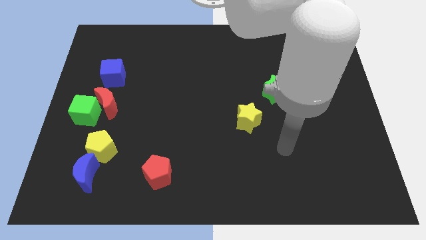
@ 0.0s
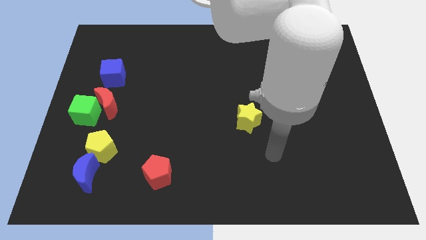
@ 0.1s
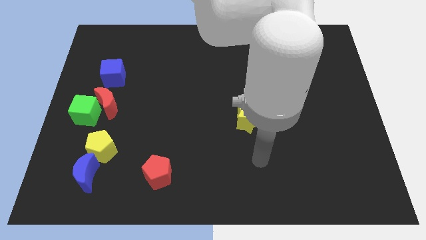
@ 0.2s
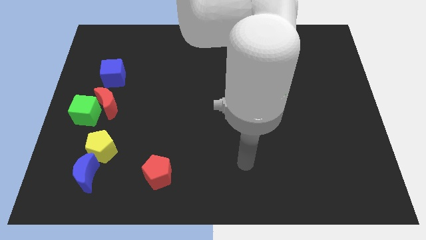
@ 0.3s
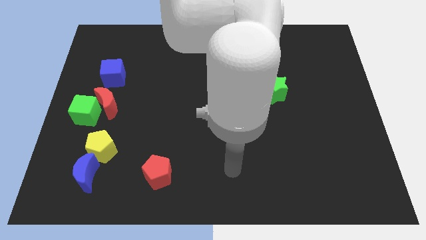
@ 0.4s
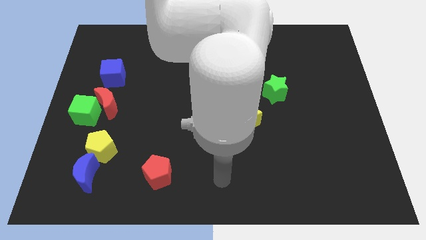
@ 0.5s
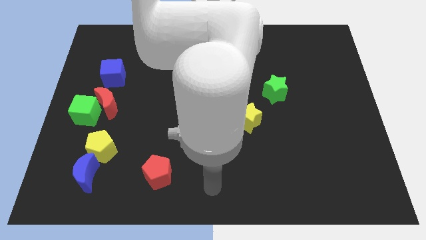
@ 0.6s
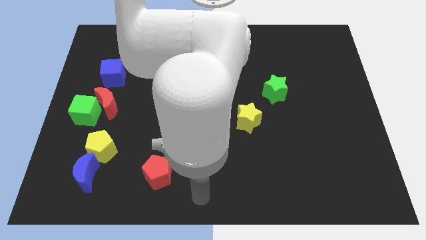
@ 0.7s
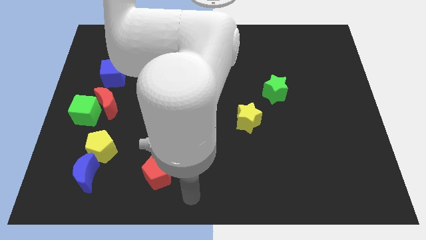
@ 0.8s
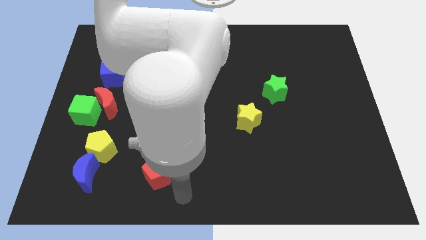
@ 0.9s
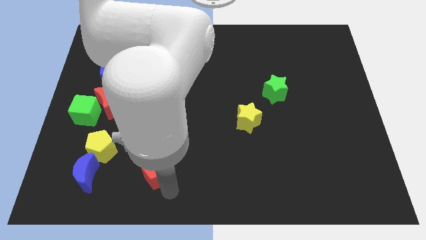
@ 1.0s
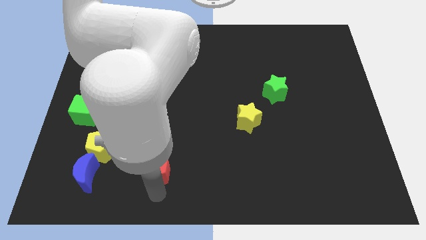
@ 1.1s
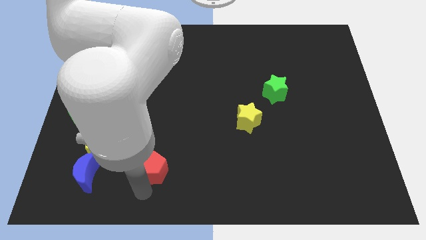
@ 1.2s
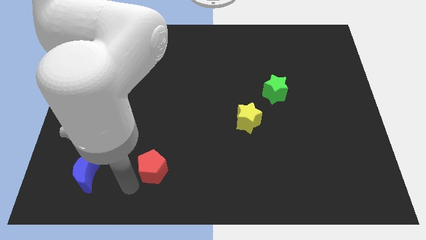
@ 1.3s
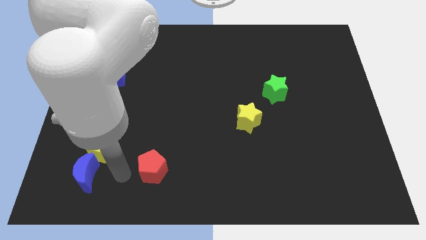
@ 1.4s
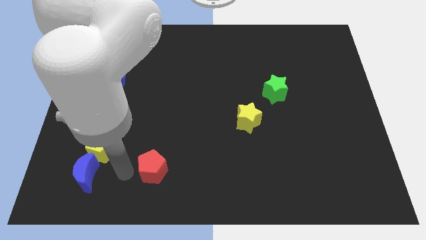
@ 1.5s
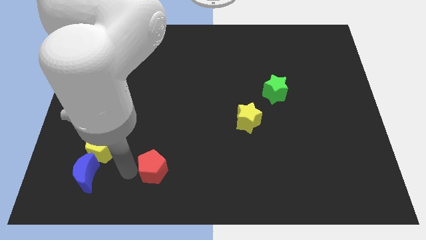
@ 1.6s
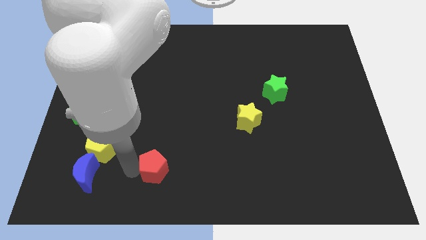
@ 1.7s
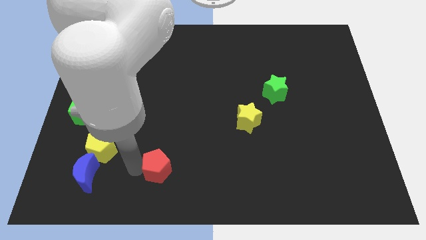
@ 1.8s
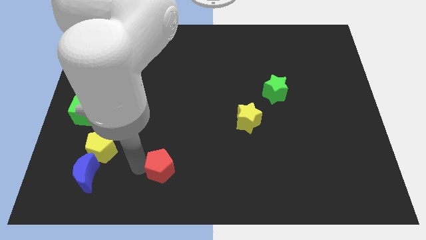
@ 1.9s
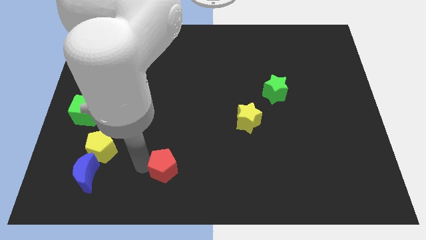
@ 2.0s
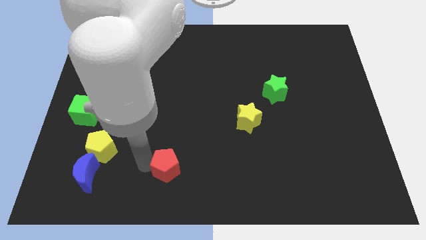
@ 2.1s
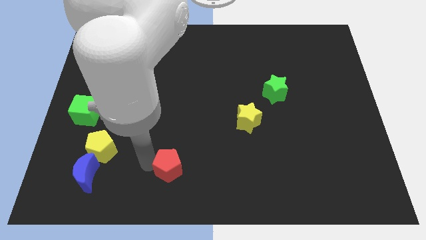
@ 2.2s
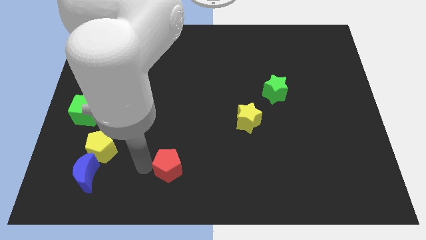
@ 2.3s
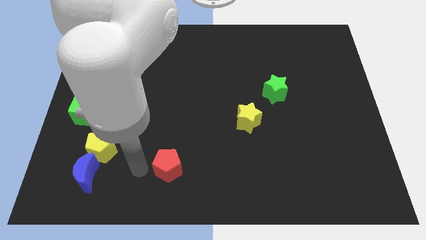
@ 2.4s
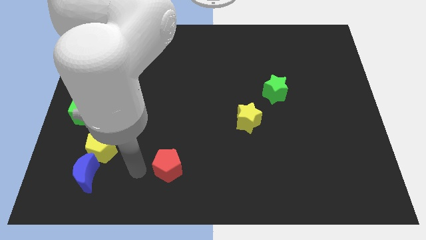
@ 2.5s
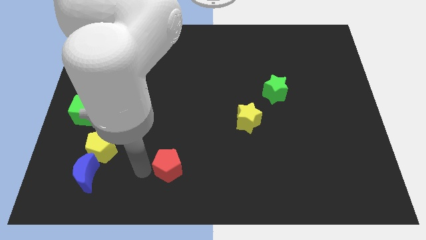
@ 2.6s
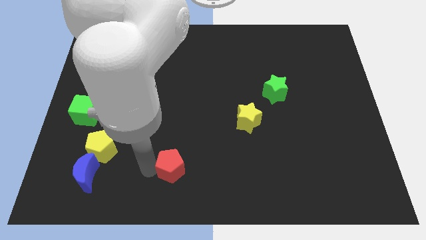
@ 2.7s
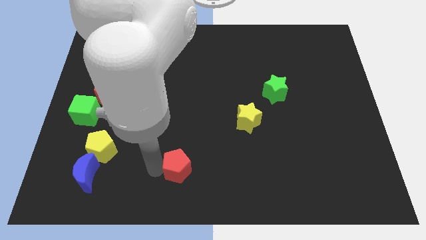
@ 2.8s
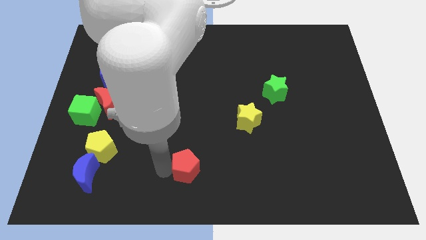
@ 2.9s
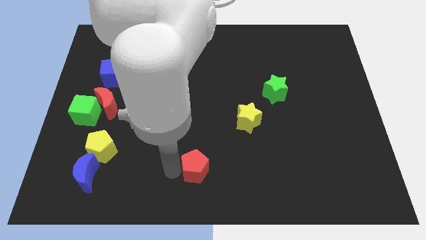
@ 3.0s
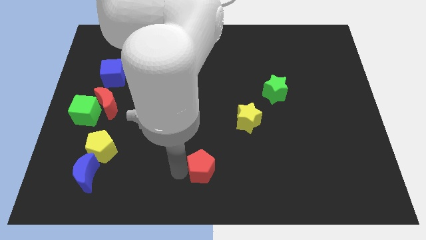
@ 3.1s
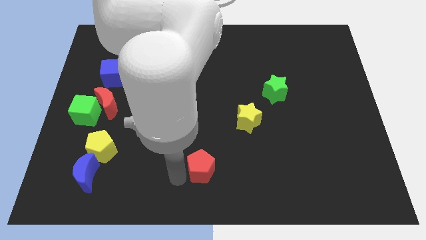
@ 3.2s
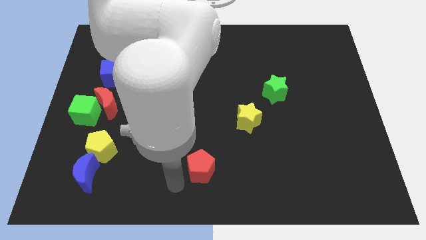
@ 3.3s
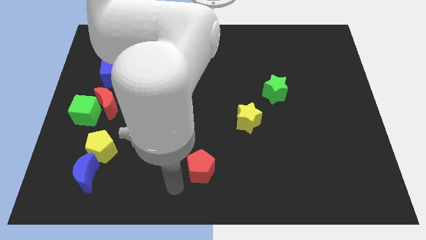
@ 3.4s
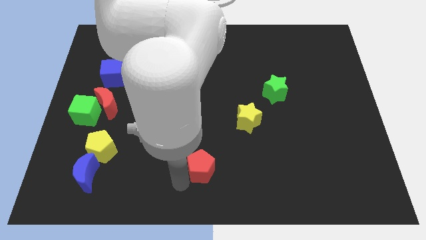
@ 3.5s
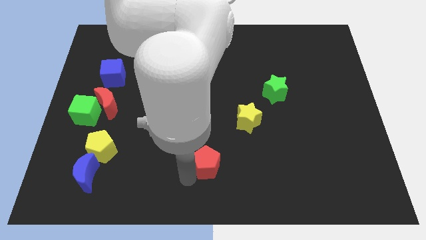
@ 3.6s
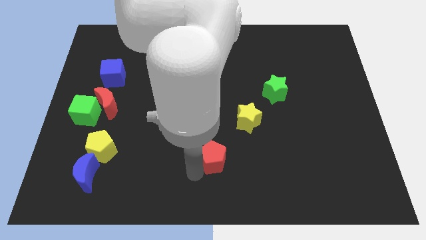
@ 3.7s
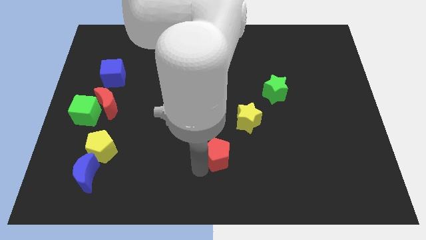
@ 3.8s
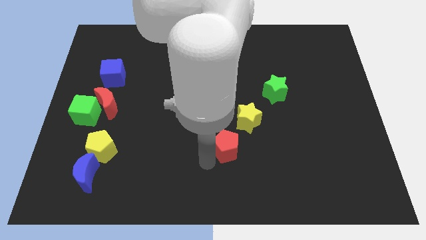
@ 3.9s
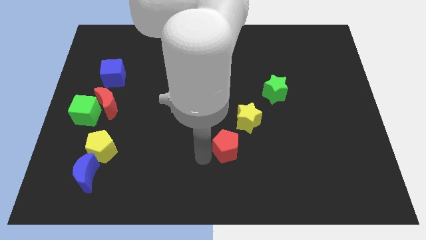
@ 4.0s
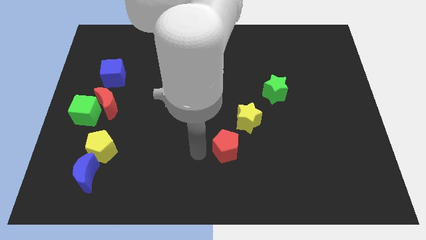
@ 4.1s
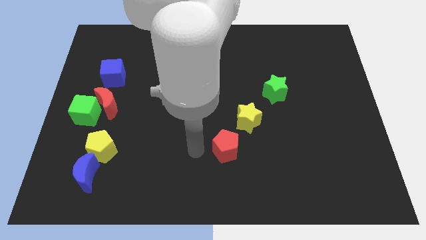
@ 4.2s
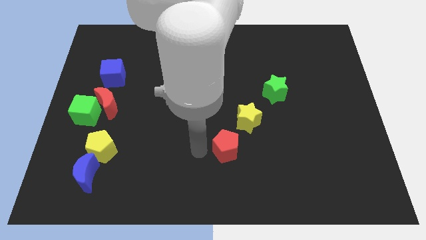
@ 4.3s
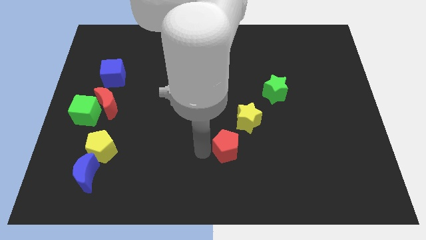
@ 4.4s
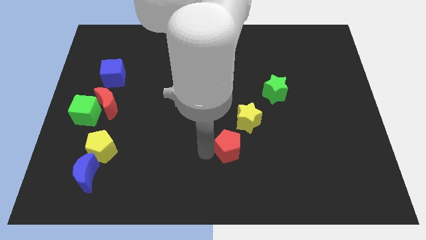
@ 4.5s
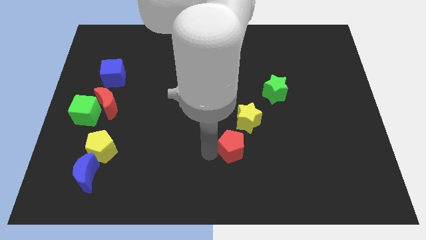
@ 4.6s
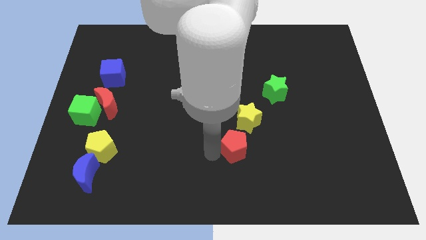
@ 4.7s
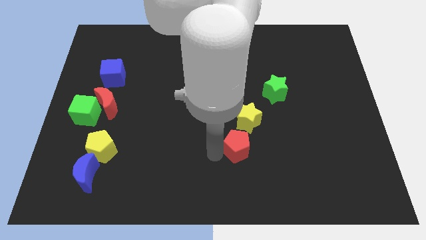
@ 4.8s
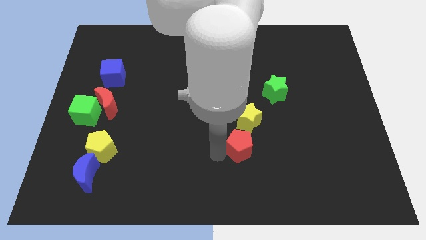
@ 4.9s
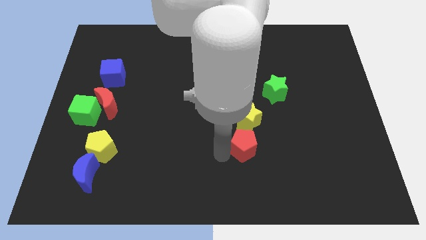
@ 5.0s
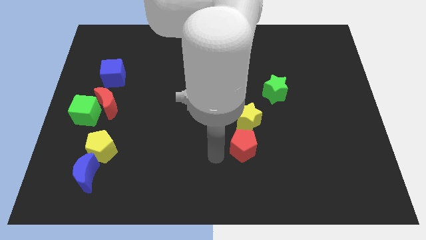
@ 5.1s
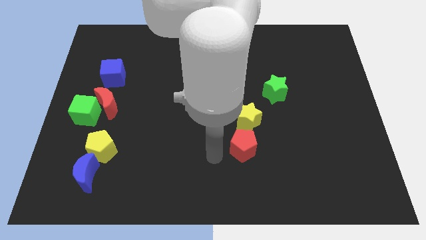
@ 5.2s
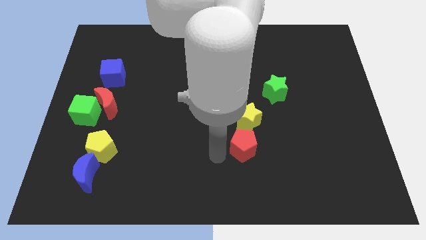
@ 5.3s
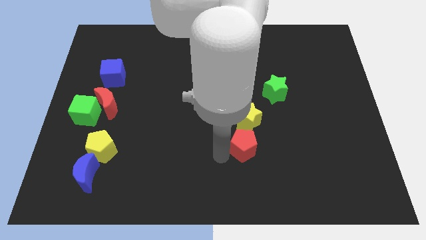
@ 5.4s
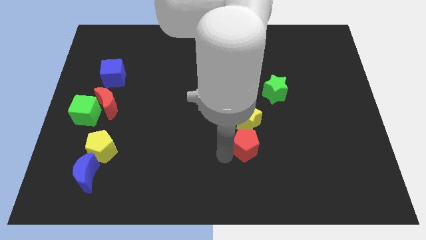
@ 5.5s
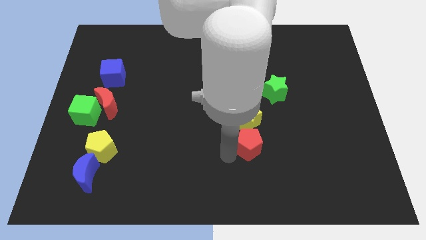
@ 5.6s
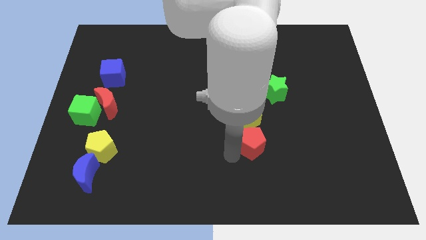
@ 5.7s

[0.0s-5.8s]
put the red pentagon diagonally down and to the right of the yellow star

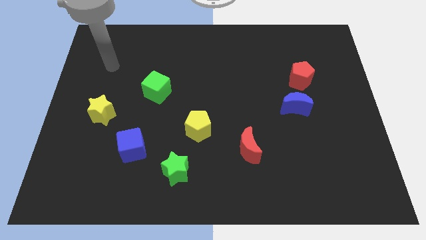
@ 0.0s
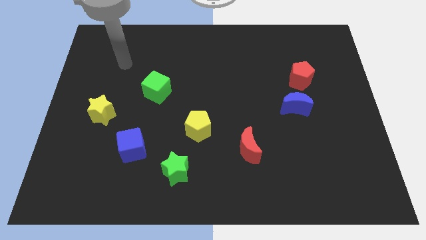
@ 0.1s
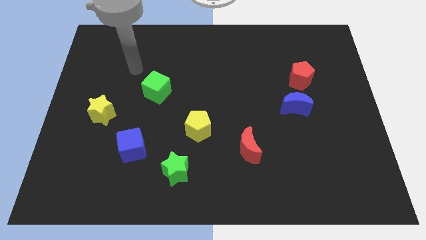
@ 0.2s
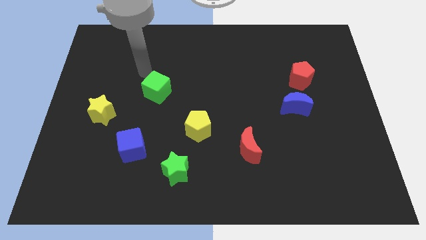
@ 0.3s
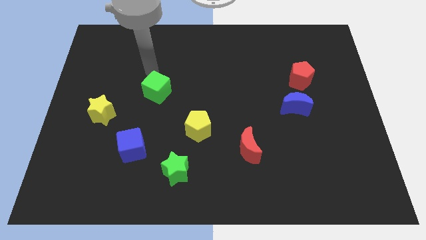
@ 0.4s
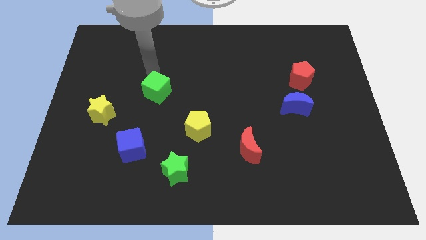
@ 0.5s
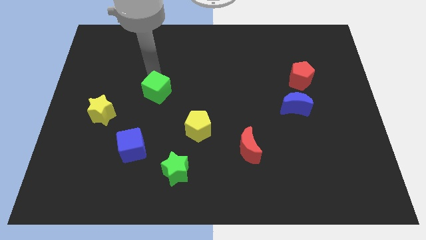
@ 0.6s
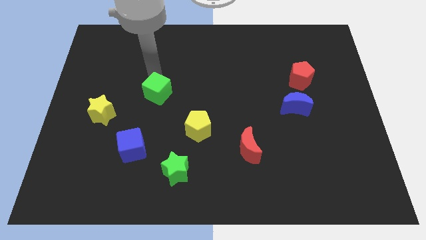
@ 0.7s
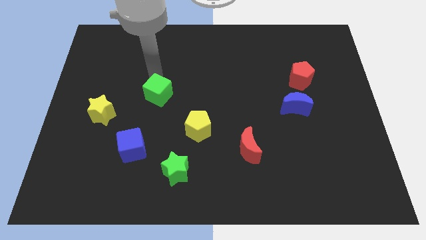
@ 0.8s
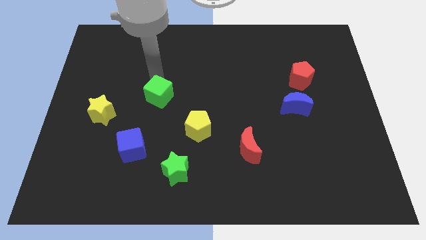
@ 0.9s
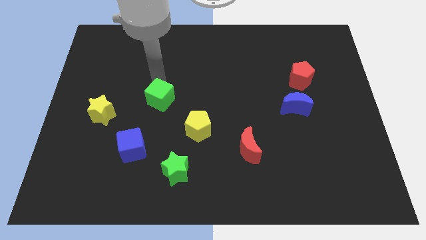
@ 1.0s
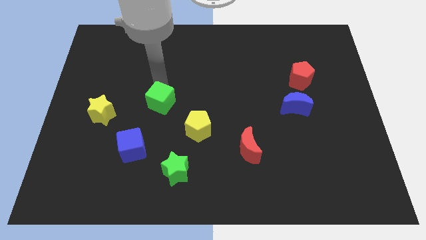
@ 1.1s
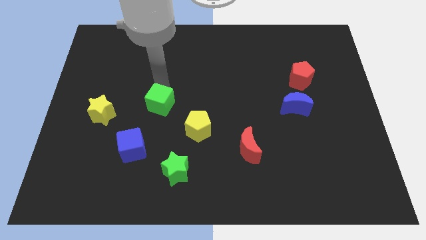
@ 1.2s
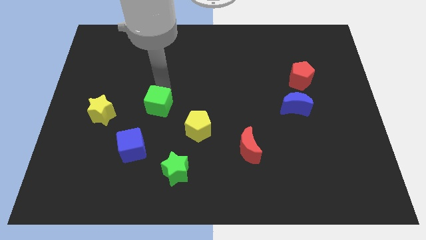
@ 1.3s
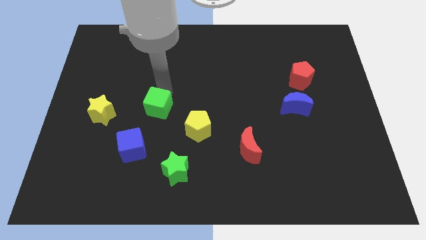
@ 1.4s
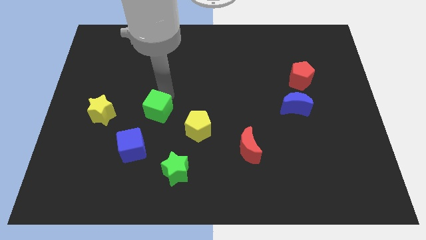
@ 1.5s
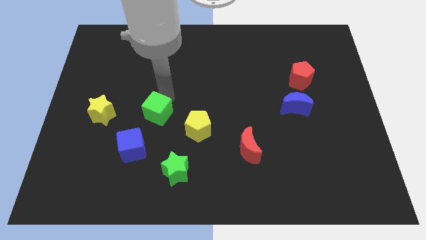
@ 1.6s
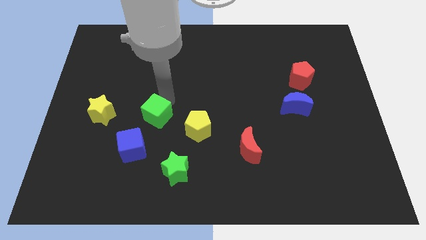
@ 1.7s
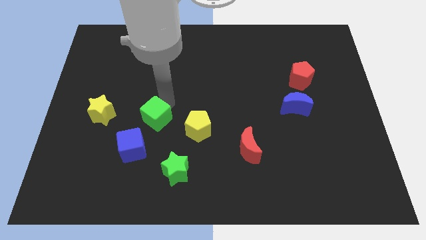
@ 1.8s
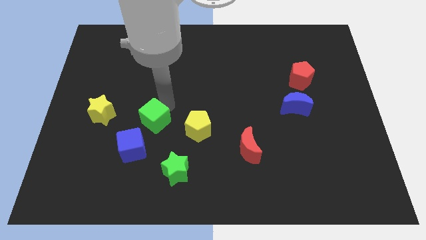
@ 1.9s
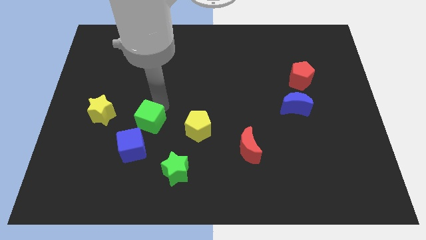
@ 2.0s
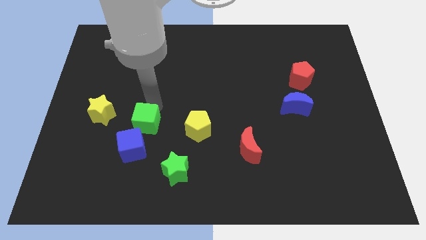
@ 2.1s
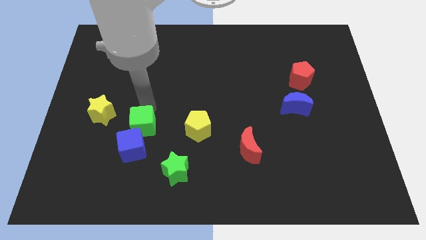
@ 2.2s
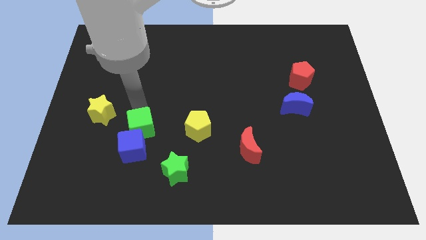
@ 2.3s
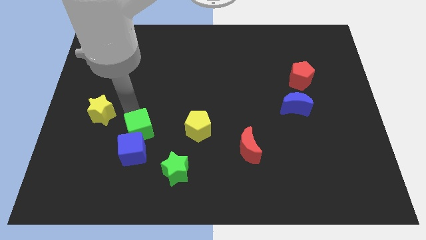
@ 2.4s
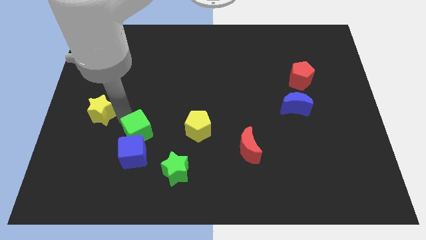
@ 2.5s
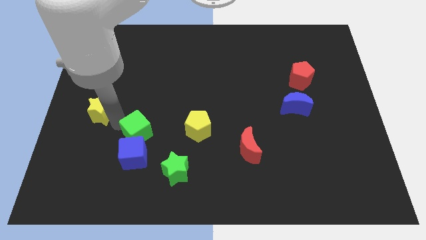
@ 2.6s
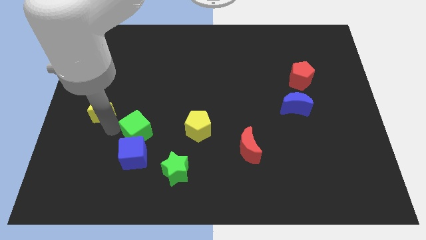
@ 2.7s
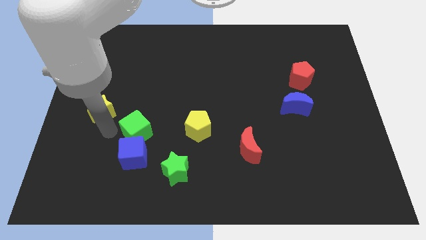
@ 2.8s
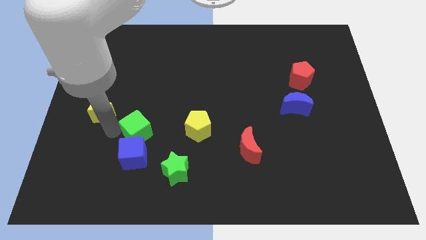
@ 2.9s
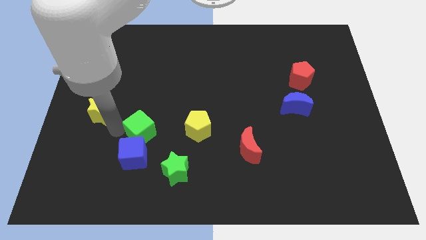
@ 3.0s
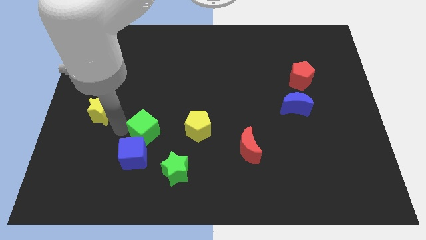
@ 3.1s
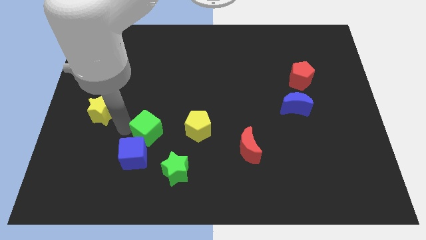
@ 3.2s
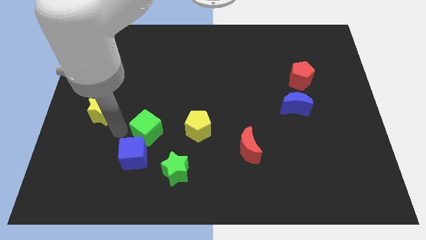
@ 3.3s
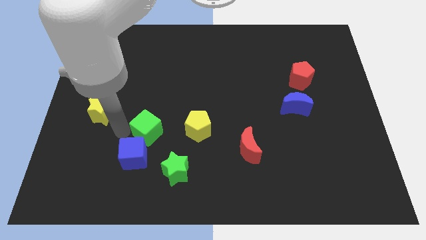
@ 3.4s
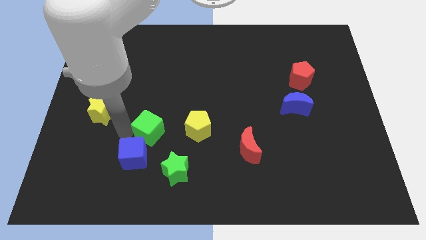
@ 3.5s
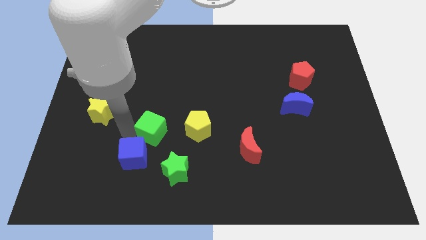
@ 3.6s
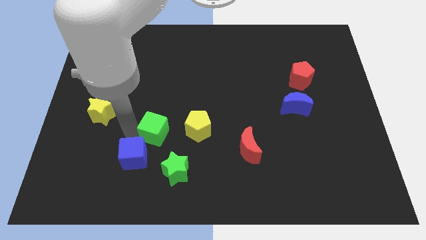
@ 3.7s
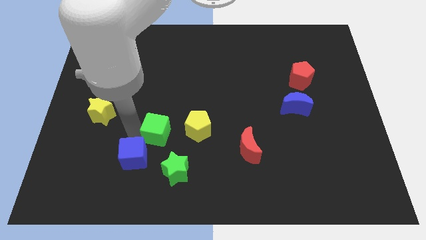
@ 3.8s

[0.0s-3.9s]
move the green cube above the green star
